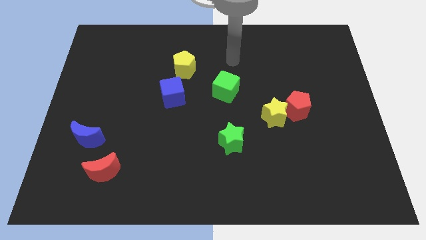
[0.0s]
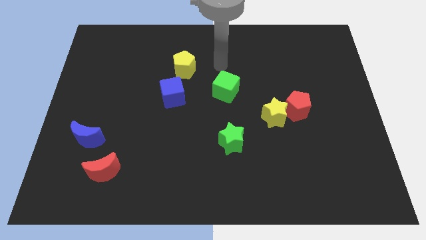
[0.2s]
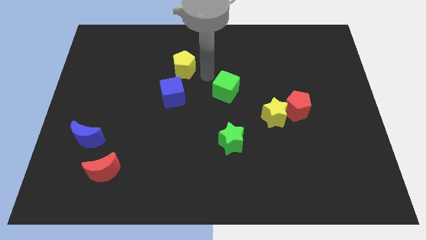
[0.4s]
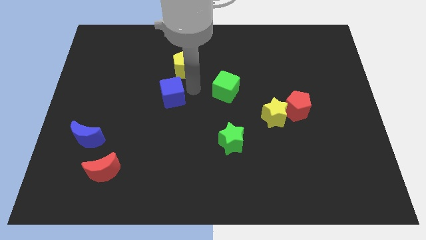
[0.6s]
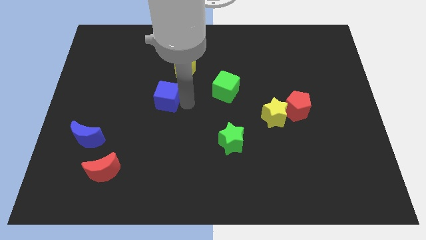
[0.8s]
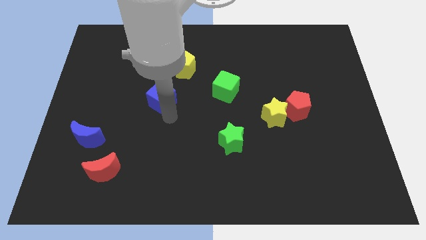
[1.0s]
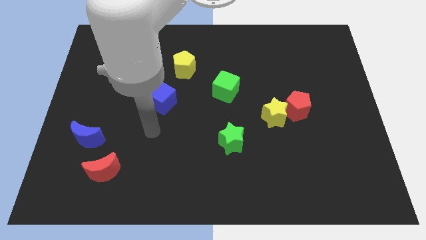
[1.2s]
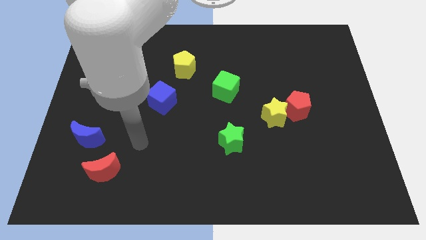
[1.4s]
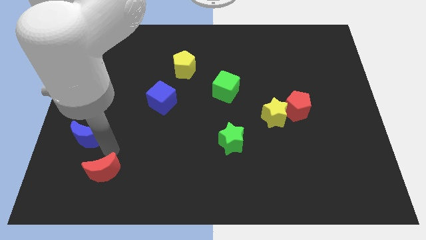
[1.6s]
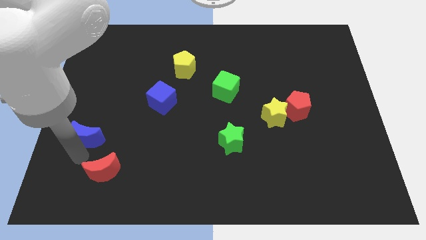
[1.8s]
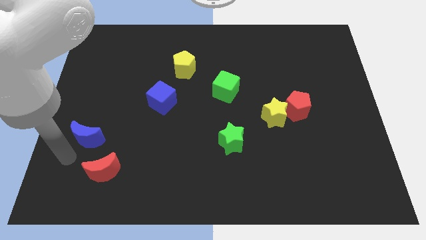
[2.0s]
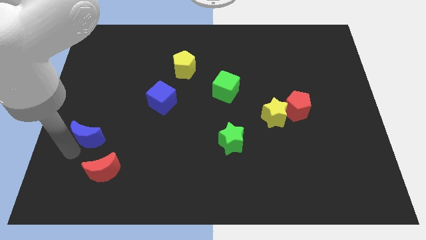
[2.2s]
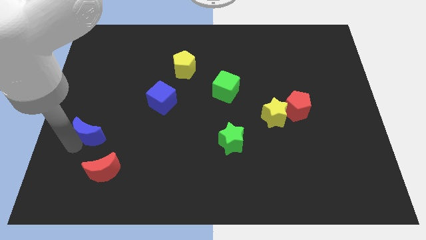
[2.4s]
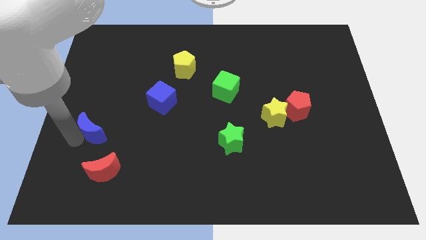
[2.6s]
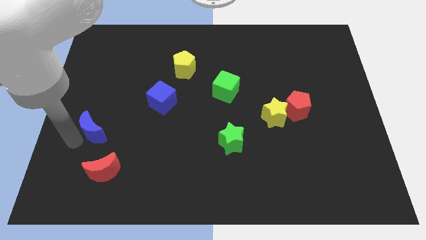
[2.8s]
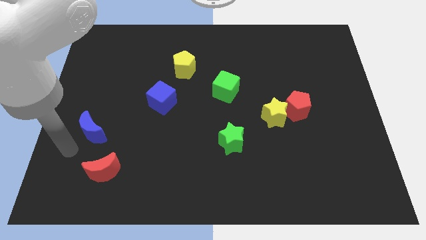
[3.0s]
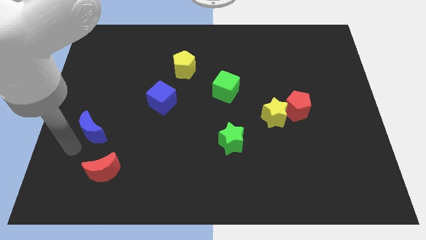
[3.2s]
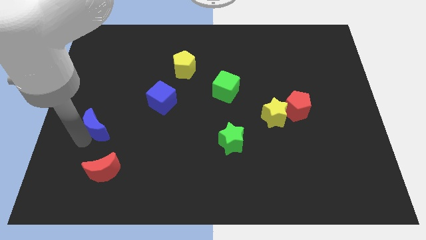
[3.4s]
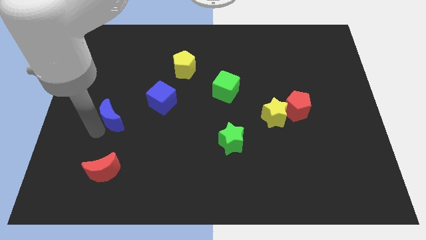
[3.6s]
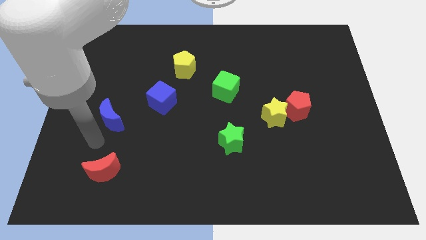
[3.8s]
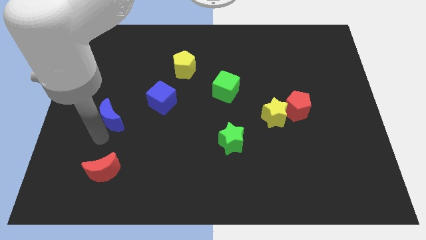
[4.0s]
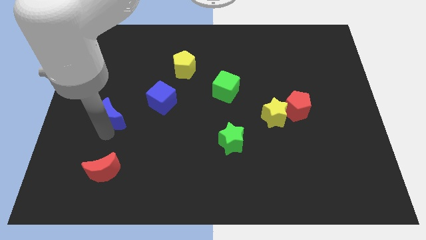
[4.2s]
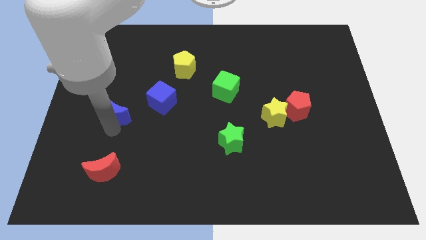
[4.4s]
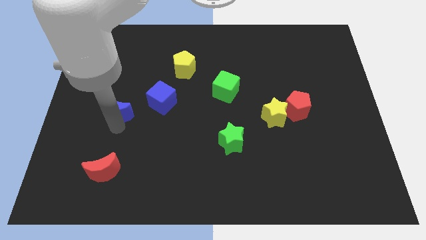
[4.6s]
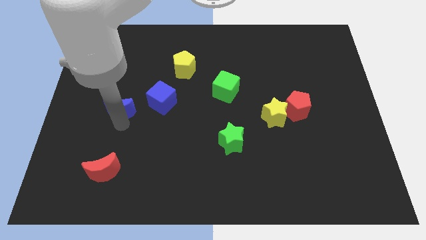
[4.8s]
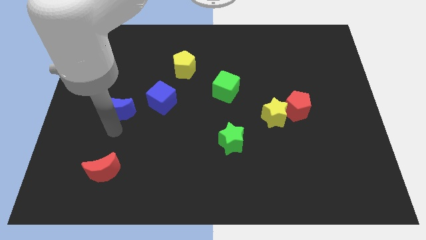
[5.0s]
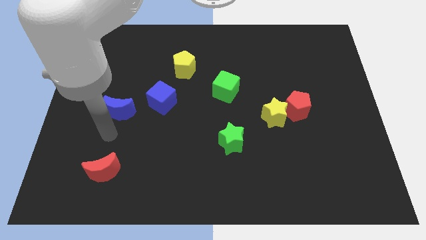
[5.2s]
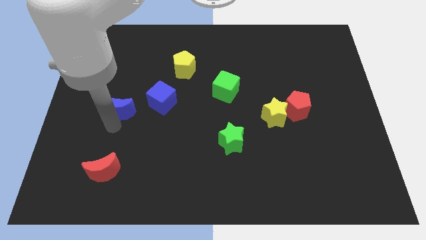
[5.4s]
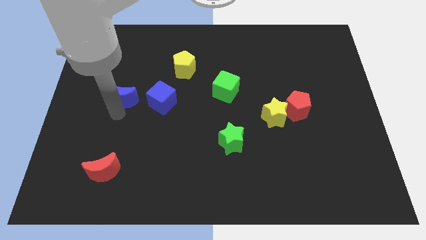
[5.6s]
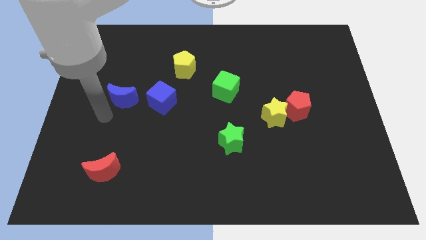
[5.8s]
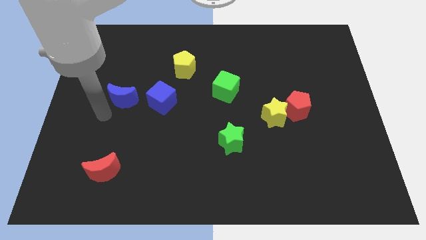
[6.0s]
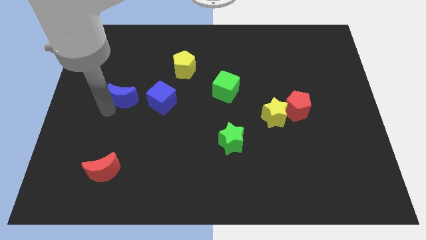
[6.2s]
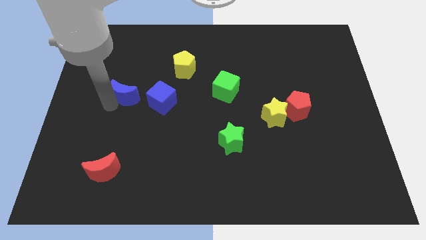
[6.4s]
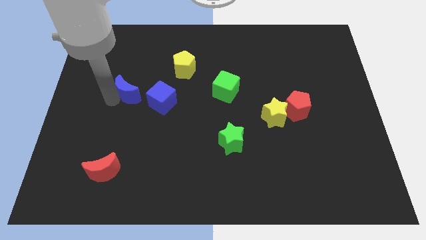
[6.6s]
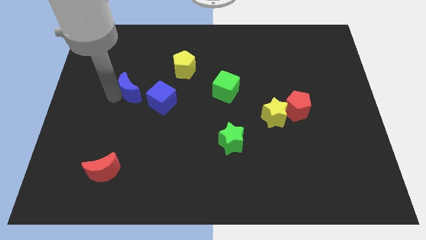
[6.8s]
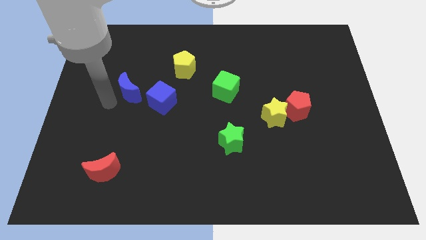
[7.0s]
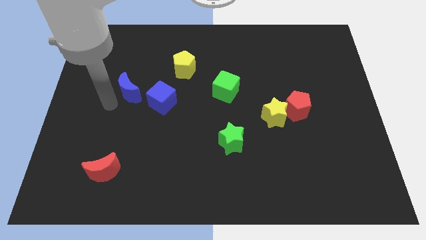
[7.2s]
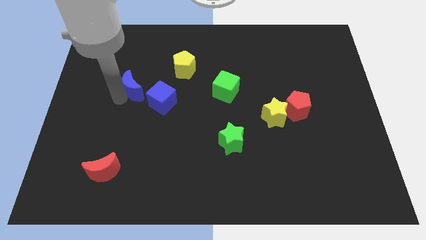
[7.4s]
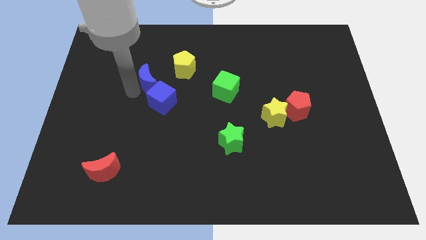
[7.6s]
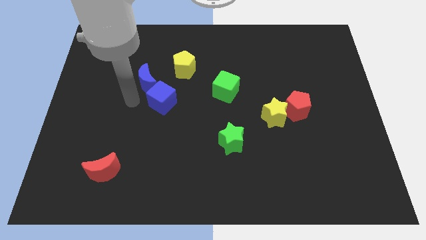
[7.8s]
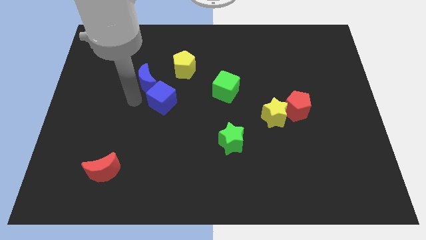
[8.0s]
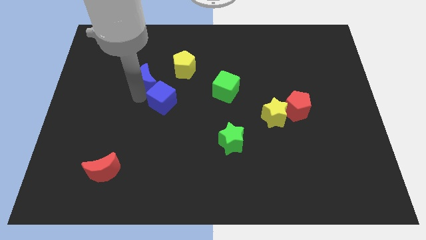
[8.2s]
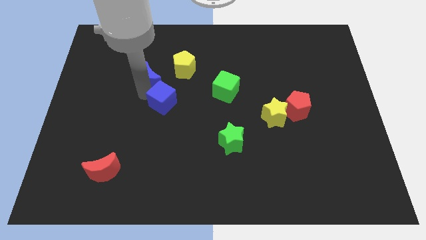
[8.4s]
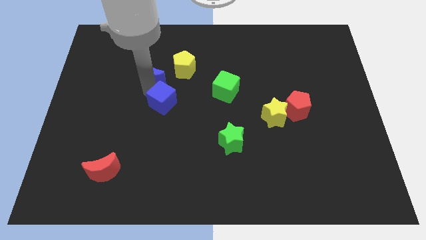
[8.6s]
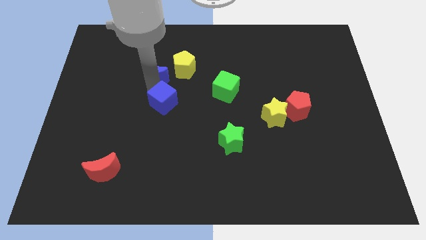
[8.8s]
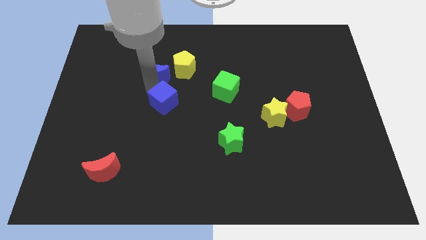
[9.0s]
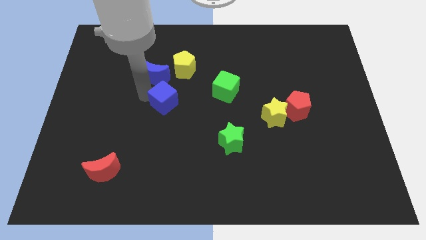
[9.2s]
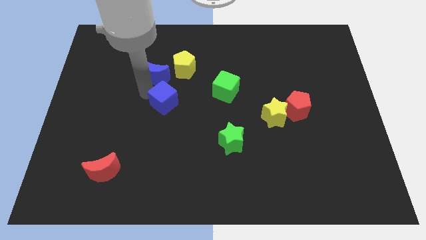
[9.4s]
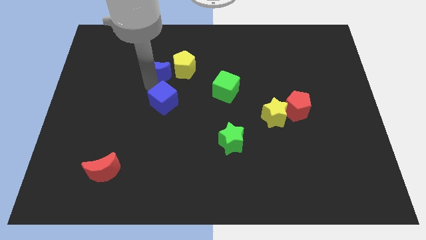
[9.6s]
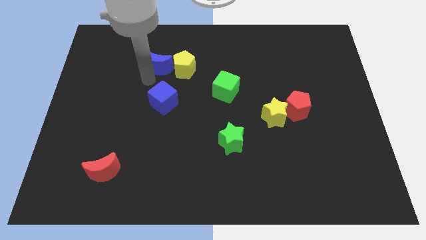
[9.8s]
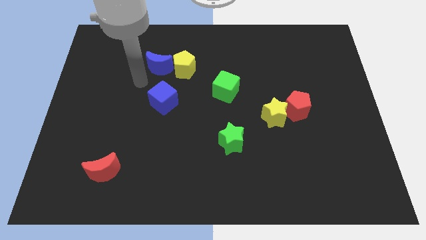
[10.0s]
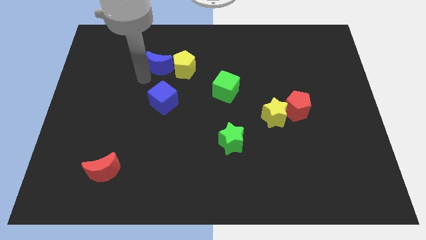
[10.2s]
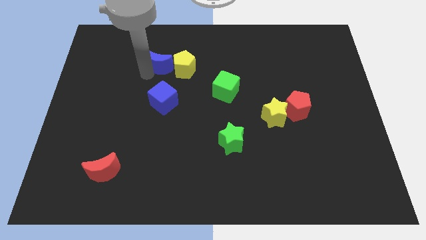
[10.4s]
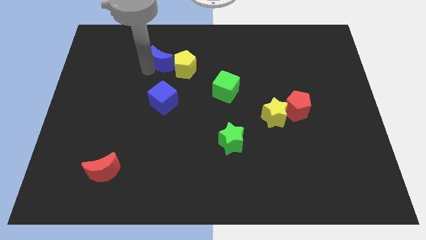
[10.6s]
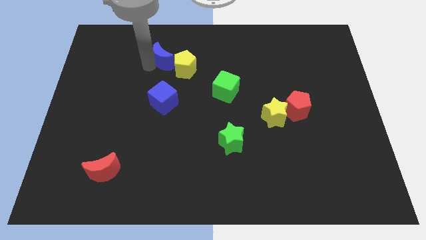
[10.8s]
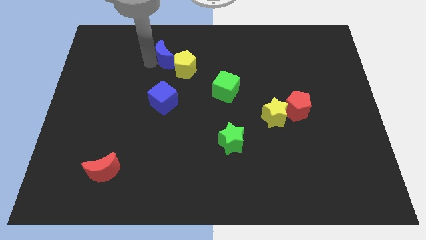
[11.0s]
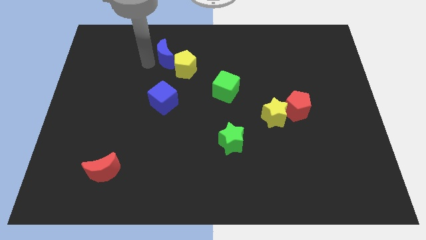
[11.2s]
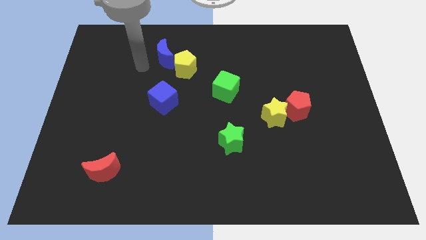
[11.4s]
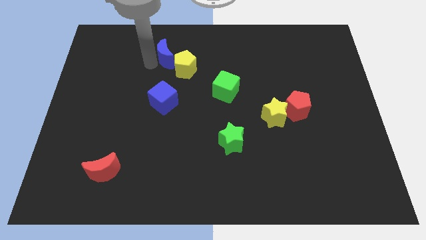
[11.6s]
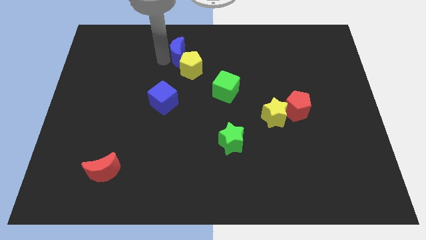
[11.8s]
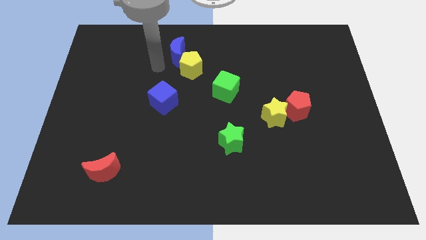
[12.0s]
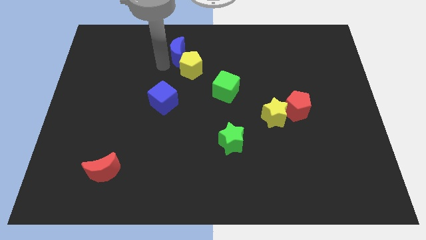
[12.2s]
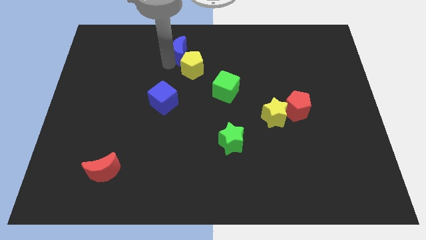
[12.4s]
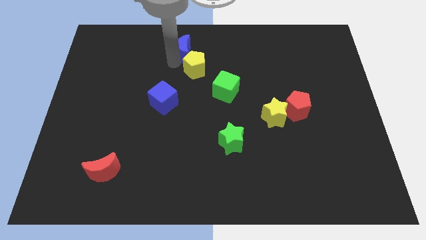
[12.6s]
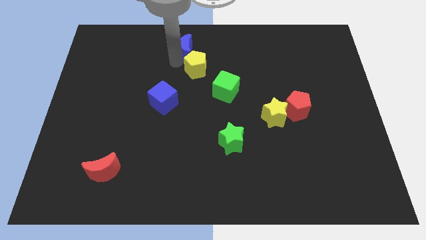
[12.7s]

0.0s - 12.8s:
slide the blue moon to the top side
